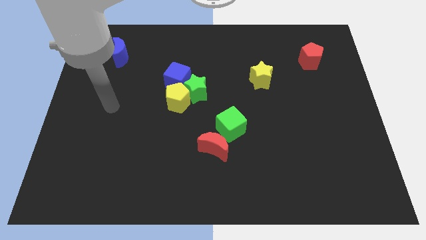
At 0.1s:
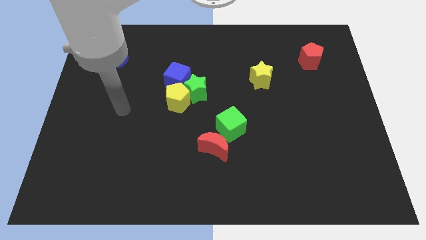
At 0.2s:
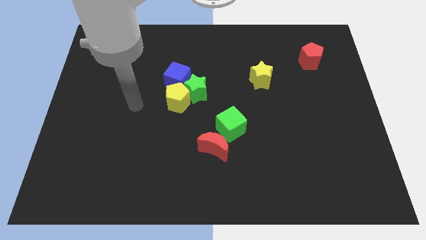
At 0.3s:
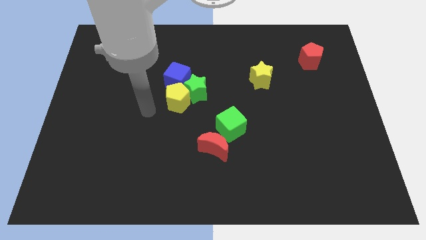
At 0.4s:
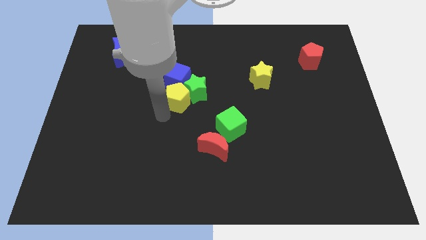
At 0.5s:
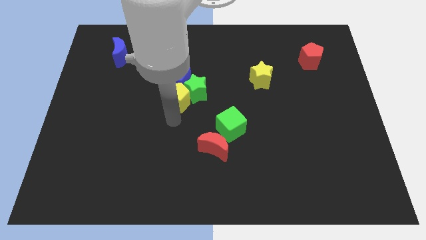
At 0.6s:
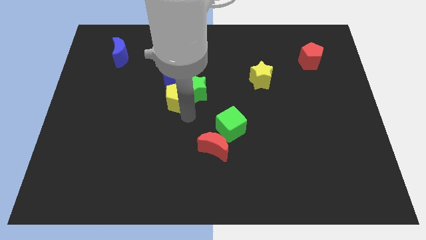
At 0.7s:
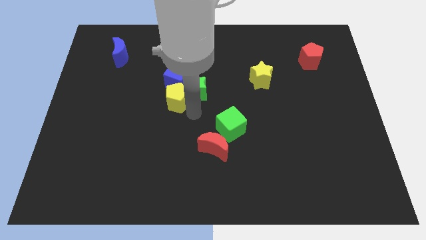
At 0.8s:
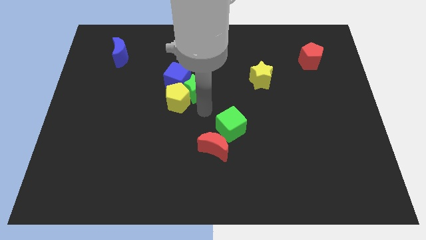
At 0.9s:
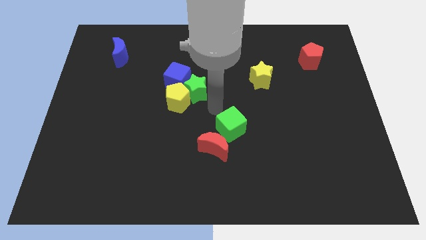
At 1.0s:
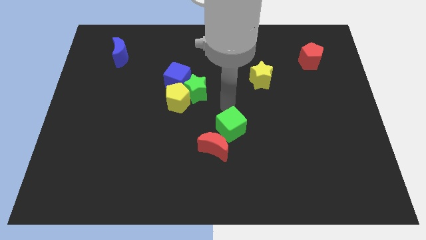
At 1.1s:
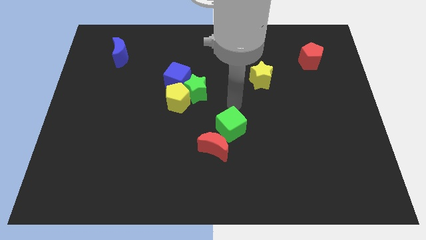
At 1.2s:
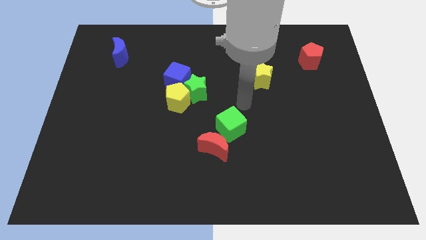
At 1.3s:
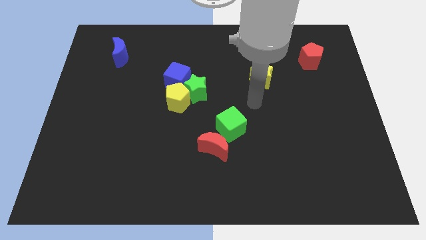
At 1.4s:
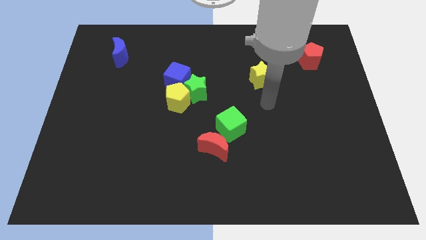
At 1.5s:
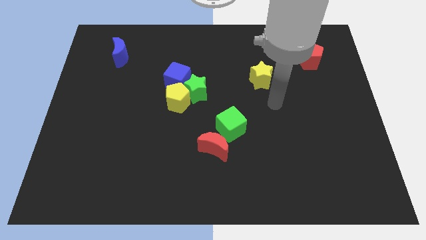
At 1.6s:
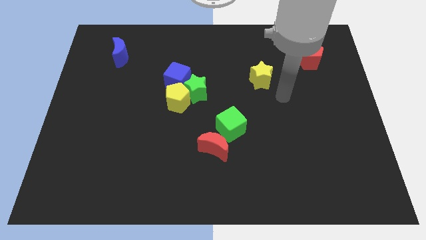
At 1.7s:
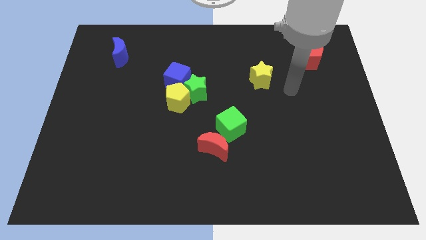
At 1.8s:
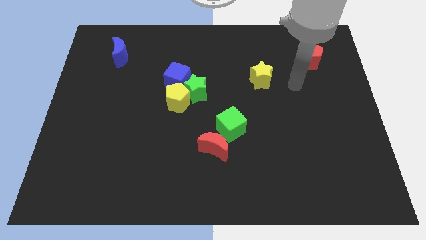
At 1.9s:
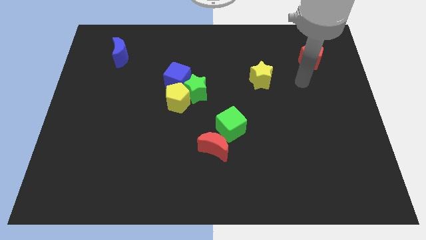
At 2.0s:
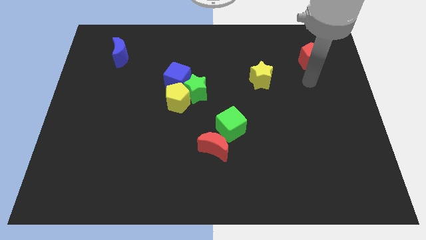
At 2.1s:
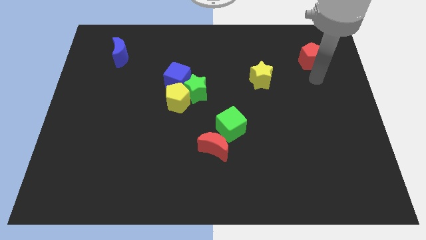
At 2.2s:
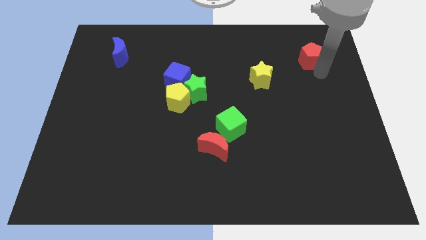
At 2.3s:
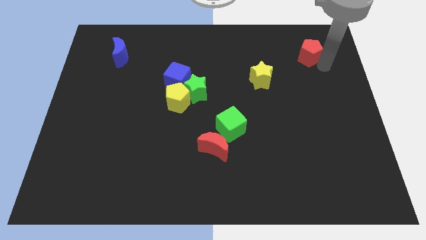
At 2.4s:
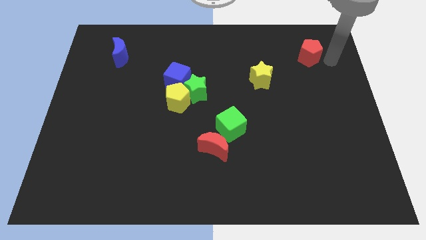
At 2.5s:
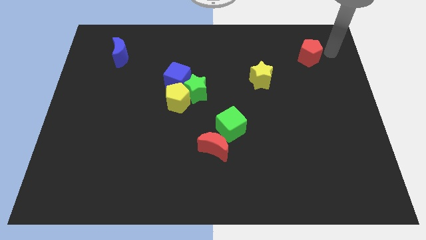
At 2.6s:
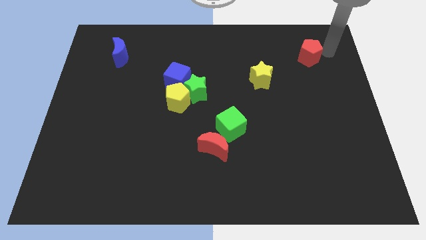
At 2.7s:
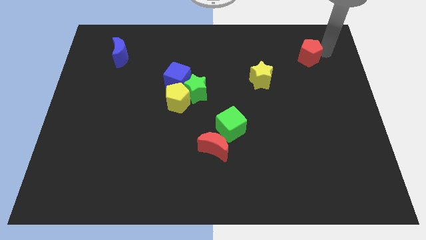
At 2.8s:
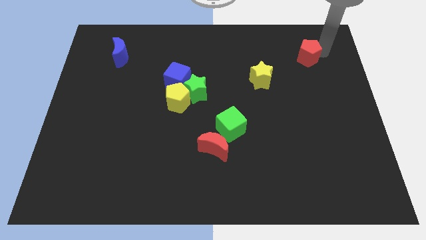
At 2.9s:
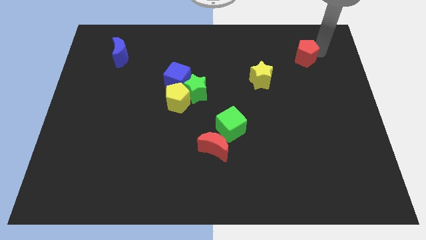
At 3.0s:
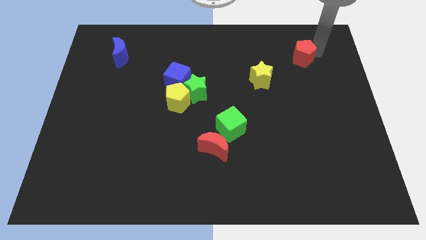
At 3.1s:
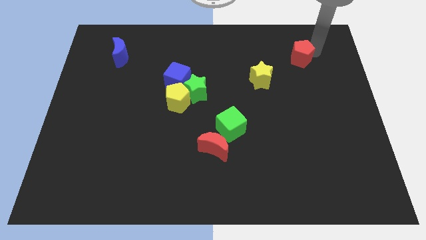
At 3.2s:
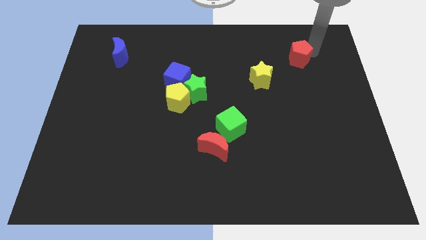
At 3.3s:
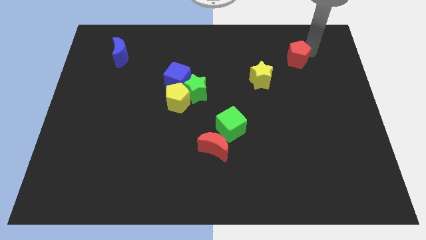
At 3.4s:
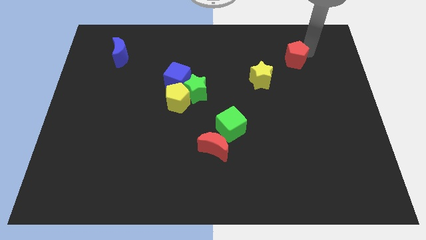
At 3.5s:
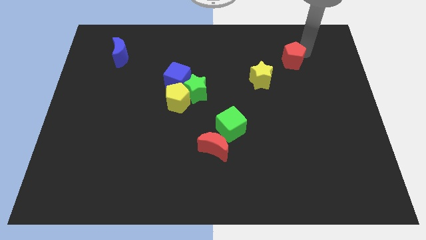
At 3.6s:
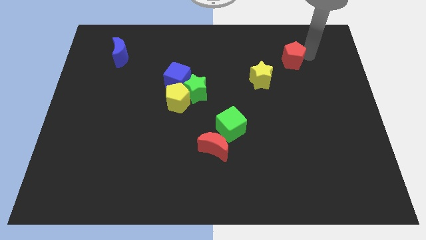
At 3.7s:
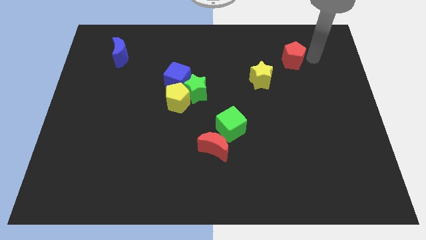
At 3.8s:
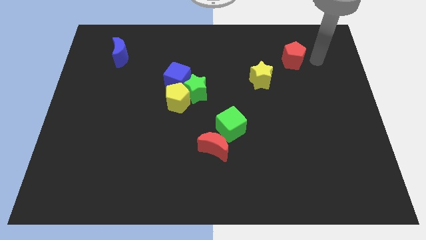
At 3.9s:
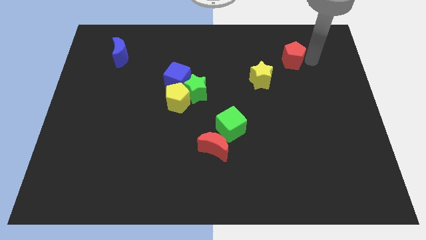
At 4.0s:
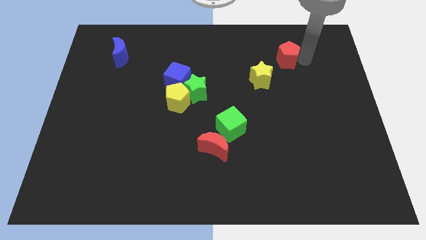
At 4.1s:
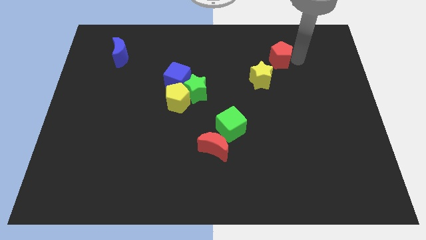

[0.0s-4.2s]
slightly move the red pentagon to the left

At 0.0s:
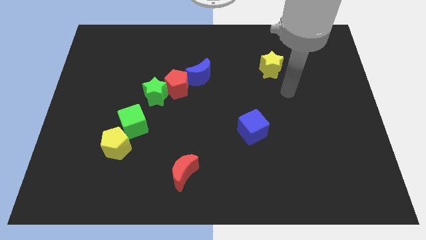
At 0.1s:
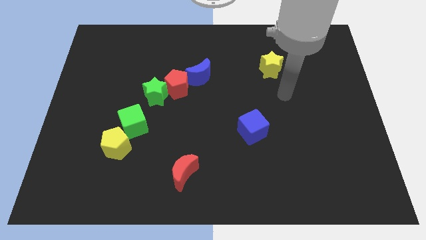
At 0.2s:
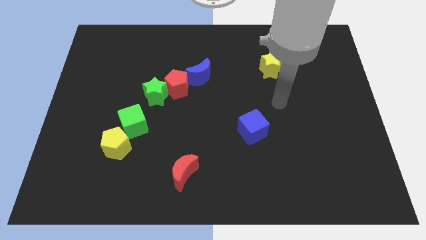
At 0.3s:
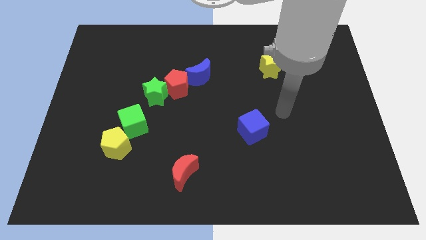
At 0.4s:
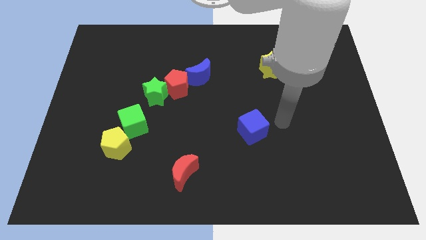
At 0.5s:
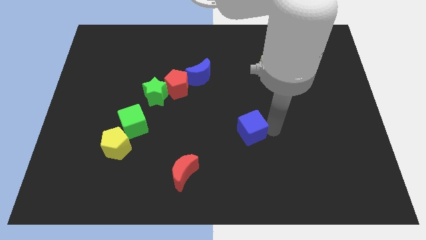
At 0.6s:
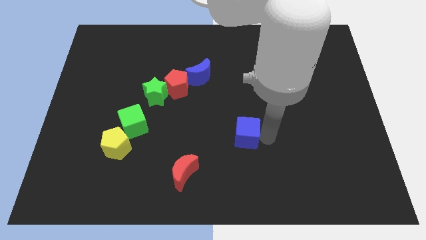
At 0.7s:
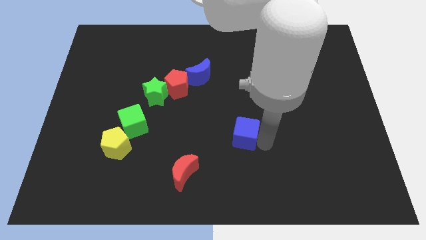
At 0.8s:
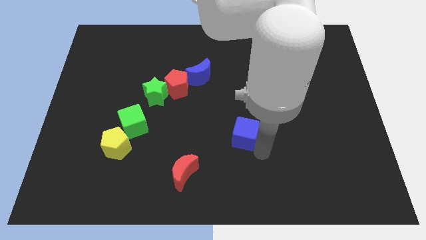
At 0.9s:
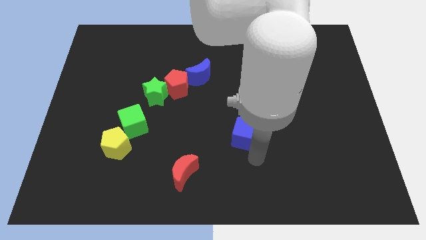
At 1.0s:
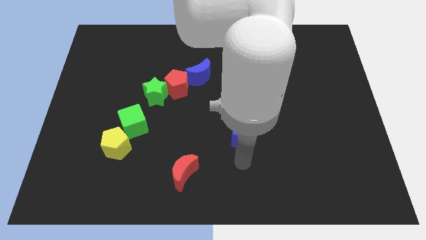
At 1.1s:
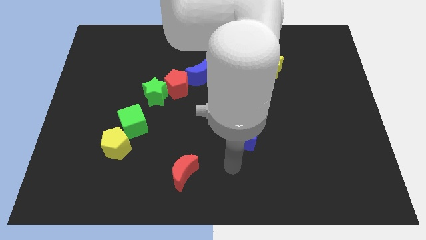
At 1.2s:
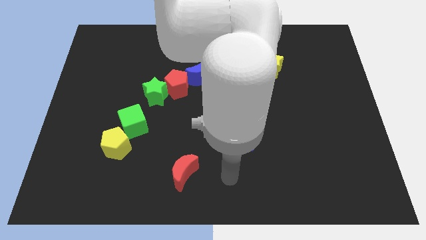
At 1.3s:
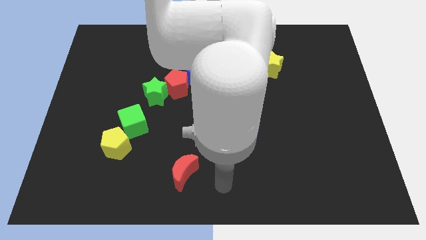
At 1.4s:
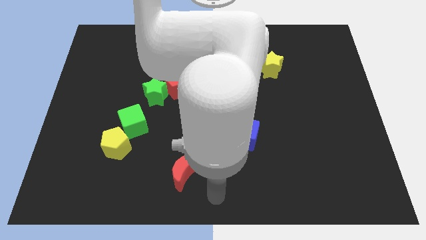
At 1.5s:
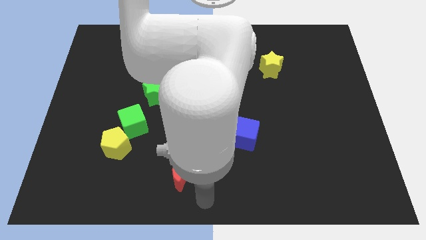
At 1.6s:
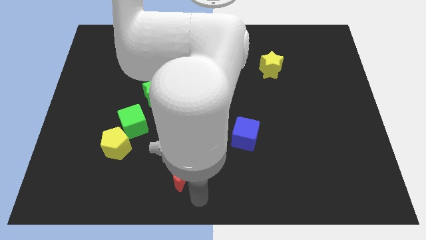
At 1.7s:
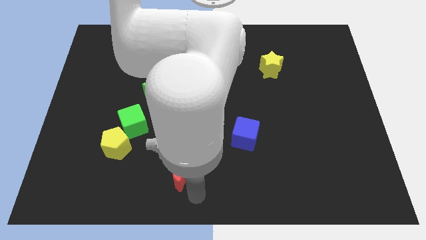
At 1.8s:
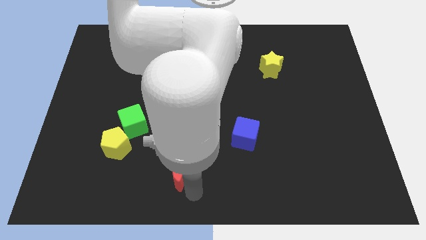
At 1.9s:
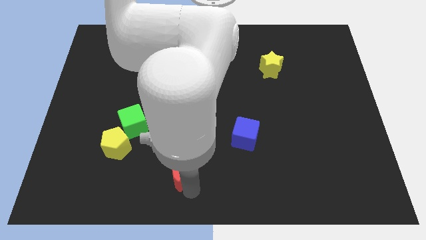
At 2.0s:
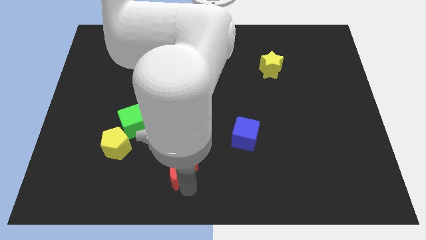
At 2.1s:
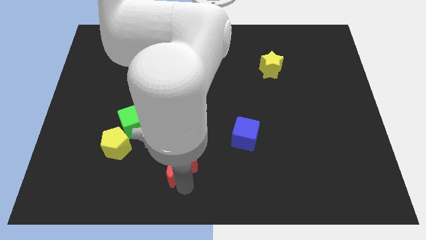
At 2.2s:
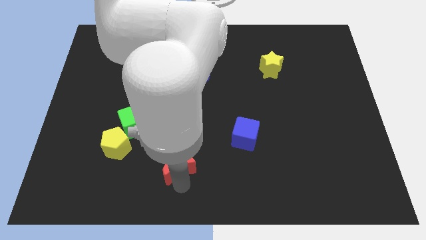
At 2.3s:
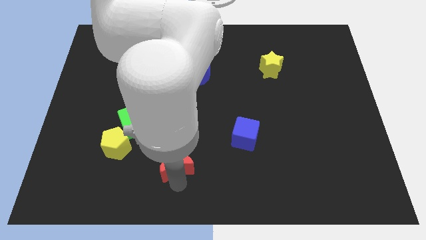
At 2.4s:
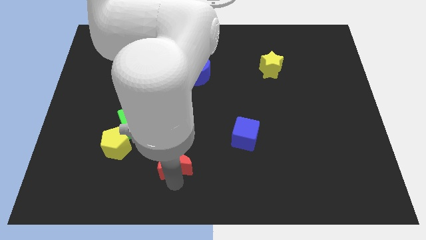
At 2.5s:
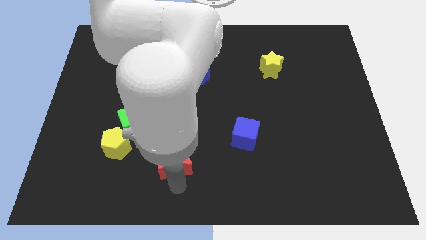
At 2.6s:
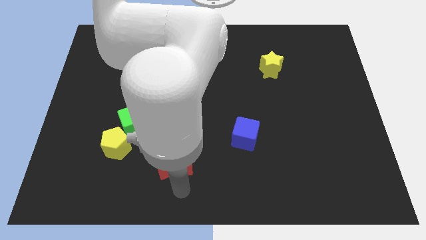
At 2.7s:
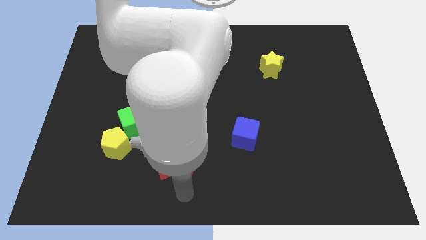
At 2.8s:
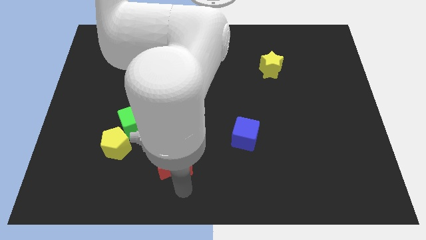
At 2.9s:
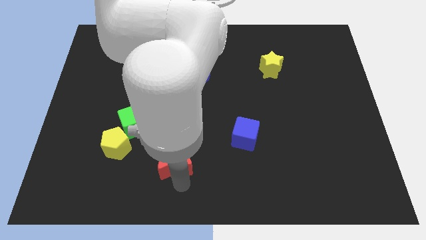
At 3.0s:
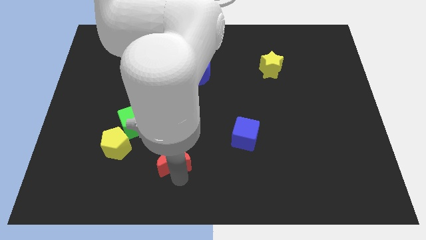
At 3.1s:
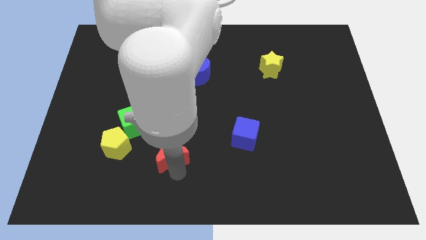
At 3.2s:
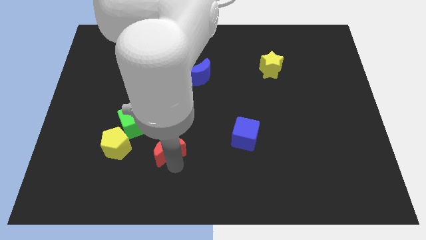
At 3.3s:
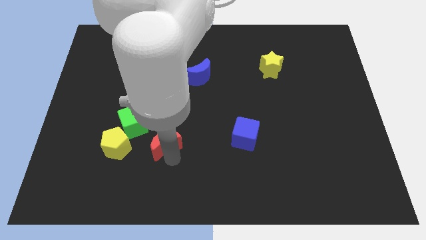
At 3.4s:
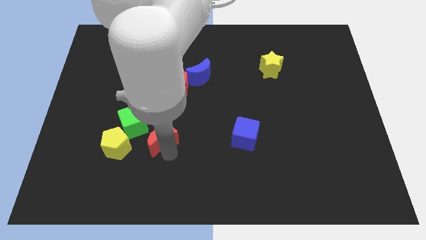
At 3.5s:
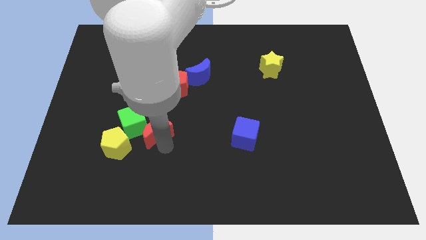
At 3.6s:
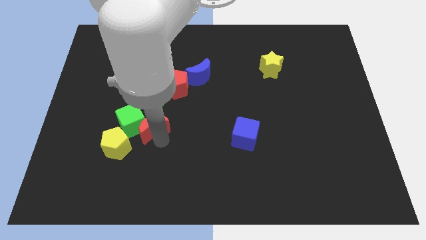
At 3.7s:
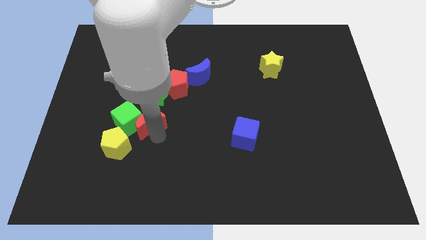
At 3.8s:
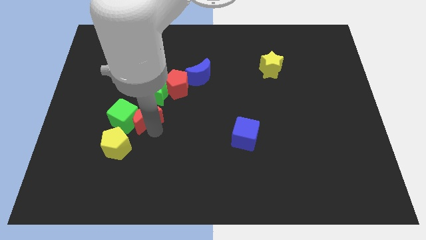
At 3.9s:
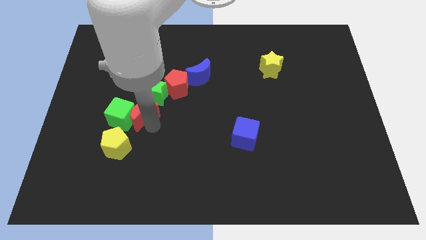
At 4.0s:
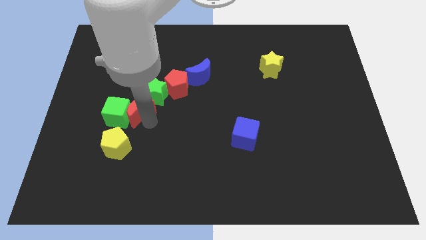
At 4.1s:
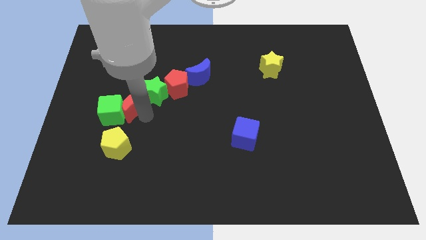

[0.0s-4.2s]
push the red moon diagonally upwards and to the left
